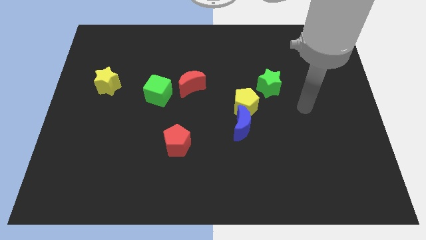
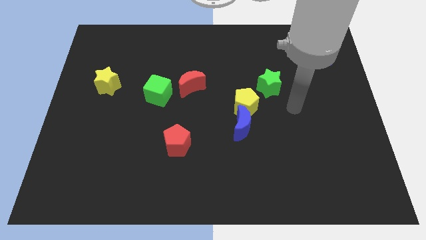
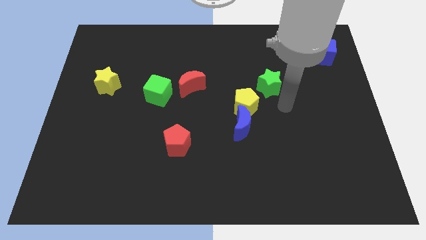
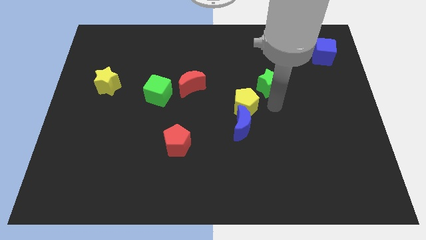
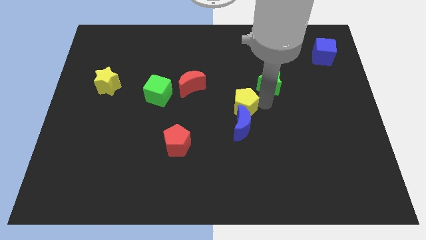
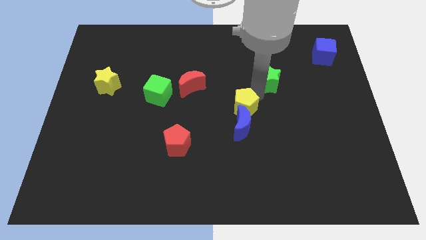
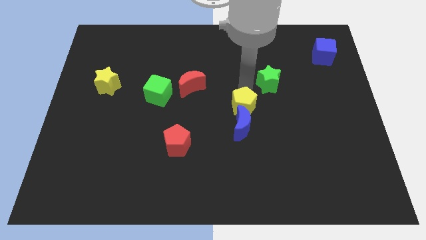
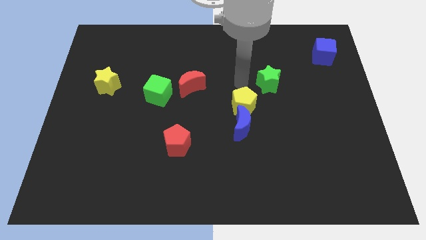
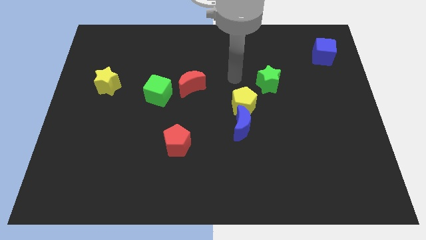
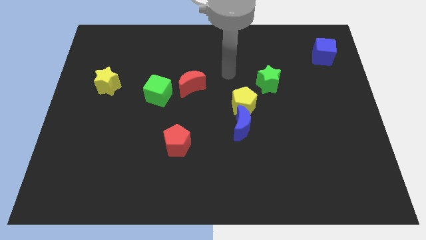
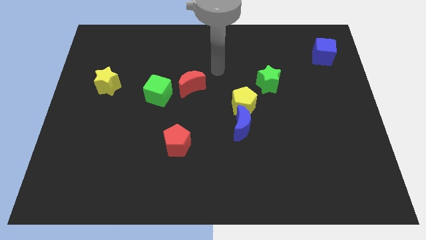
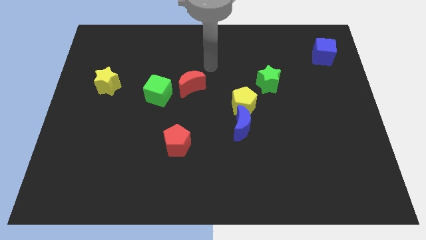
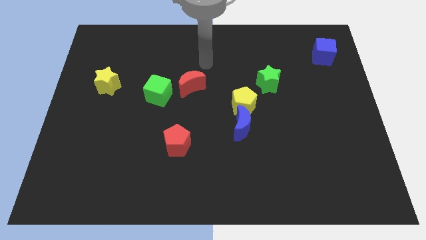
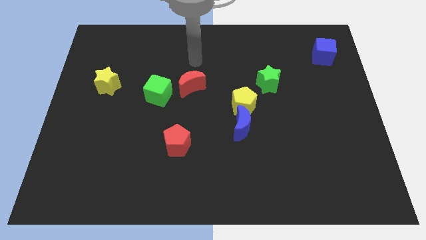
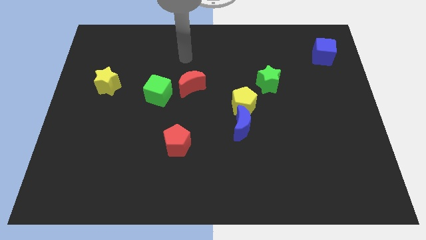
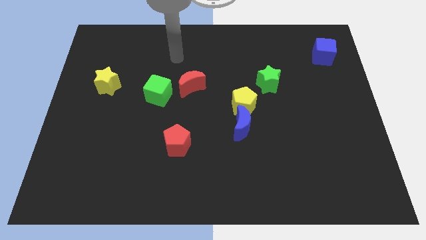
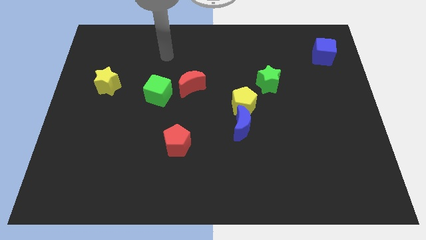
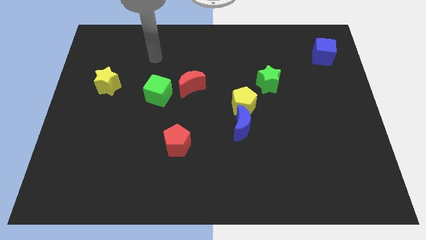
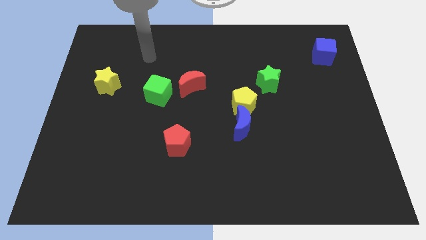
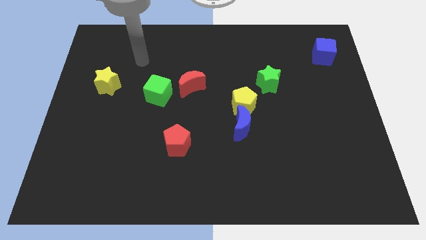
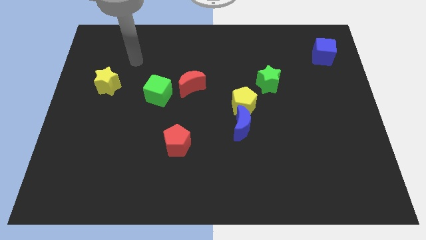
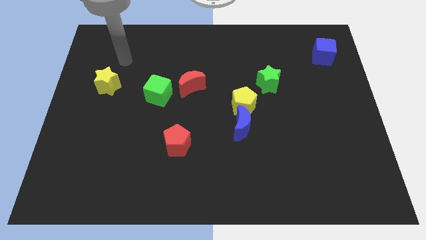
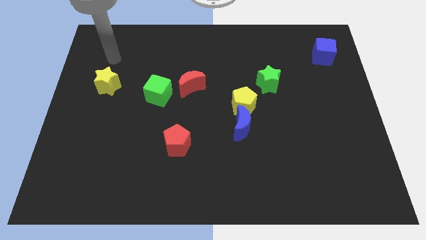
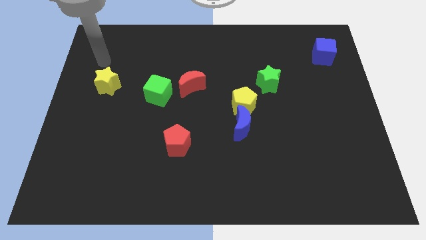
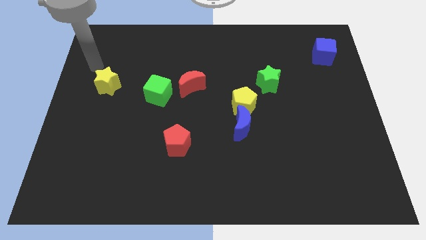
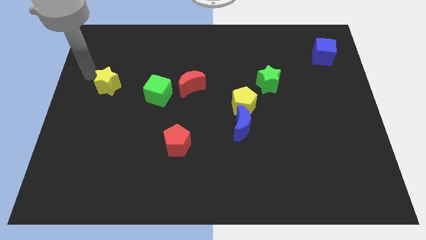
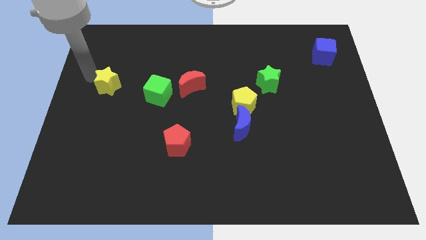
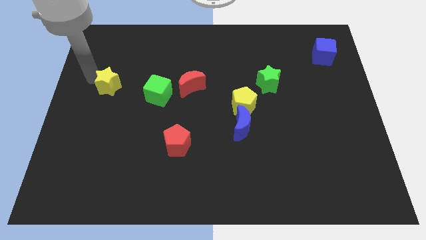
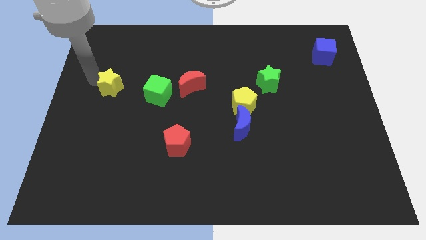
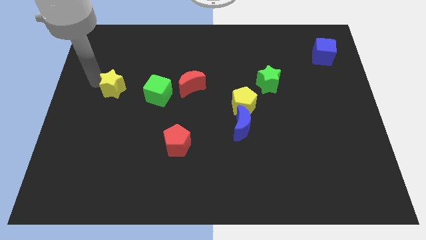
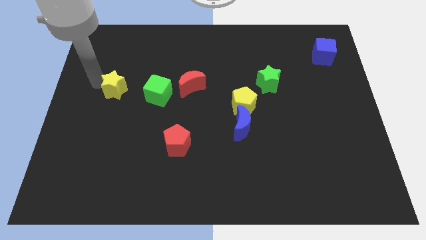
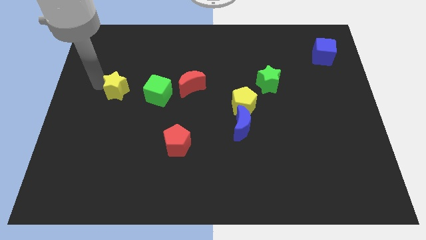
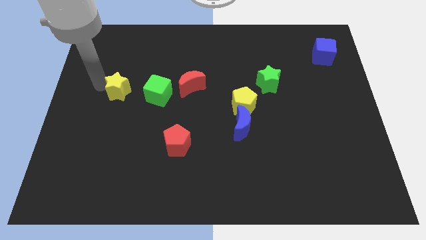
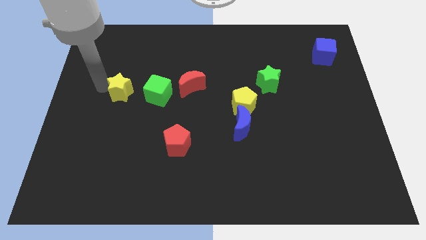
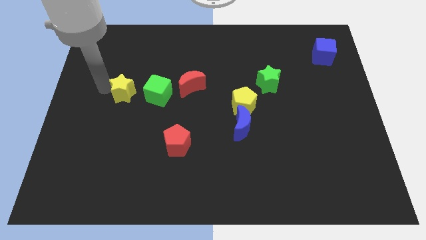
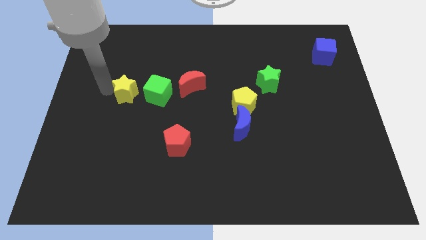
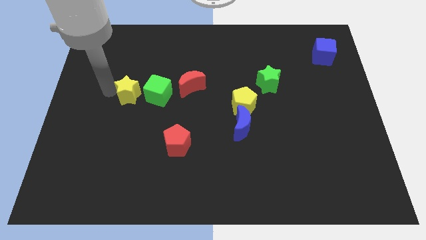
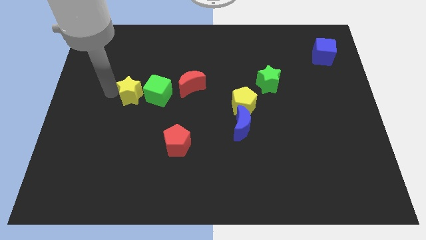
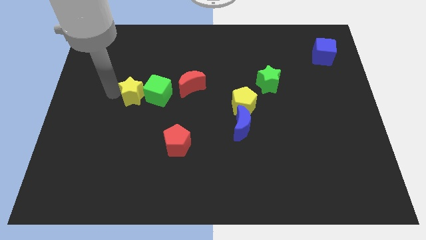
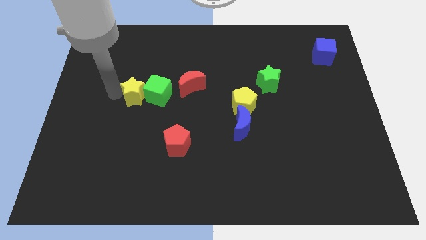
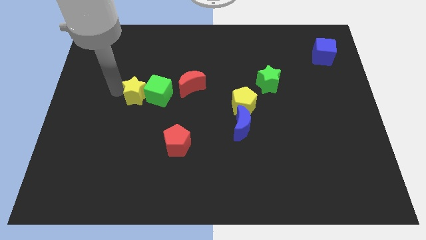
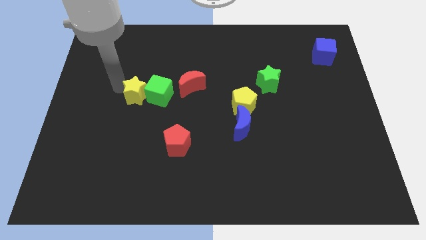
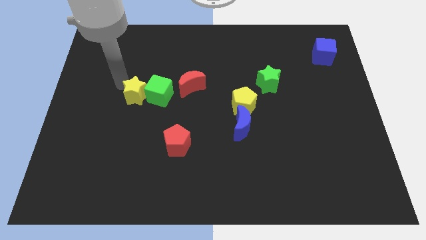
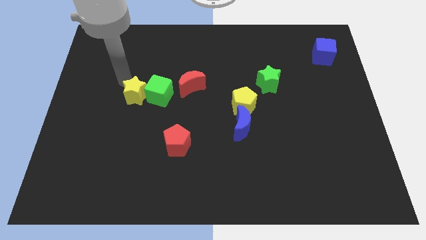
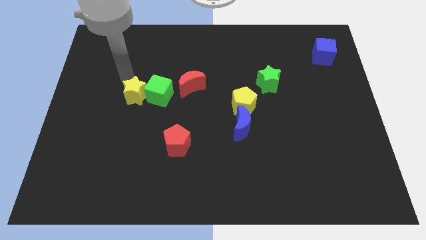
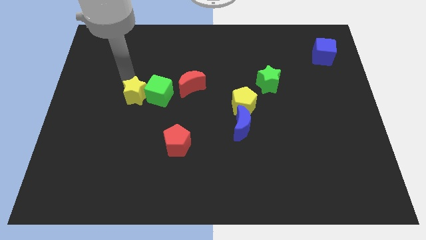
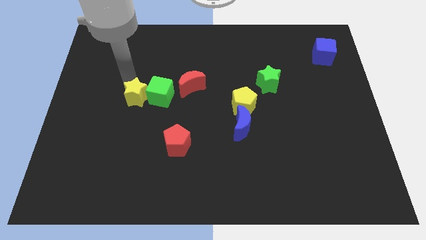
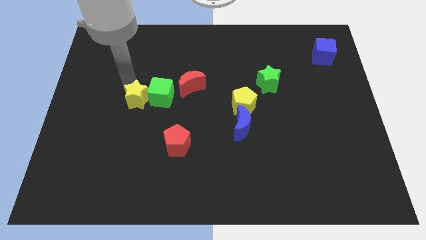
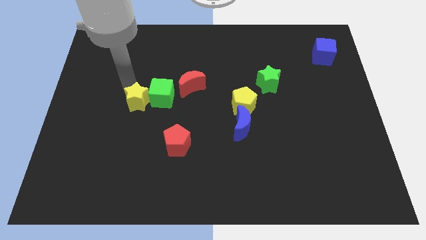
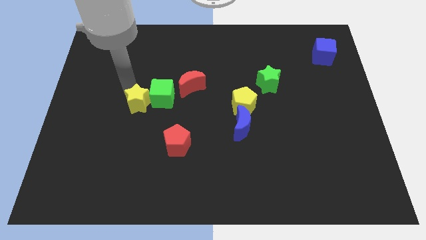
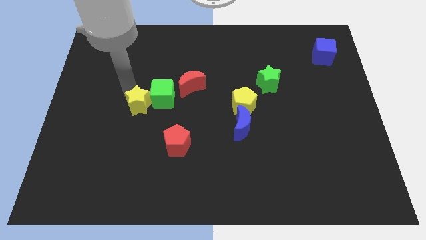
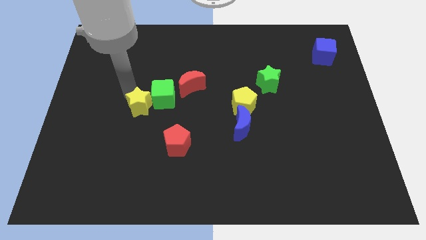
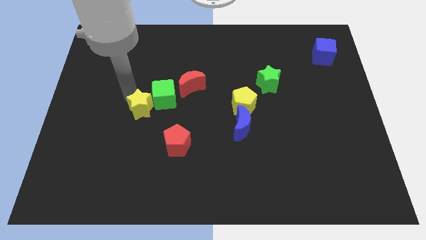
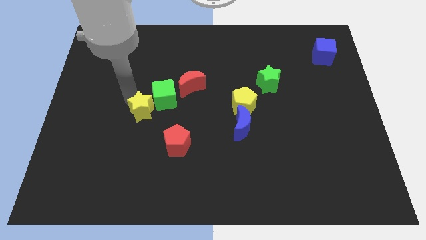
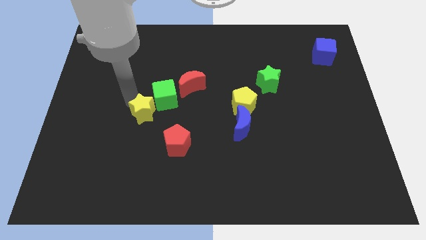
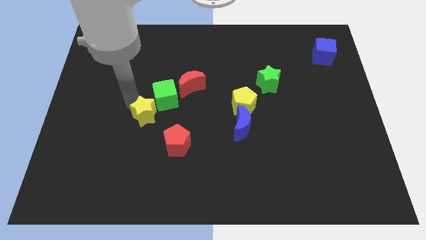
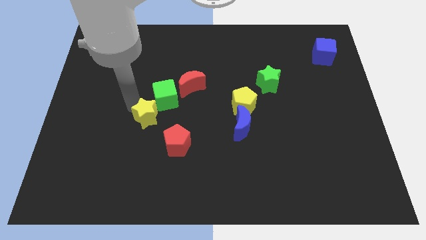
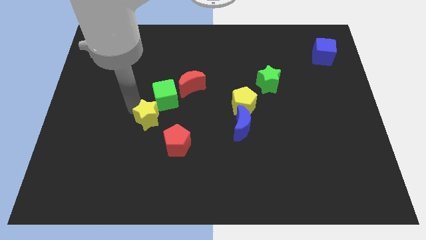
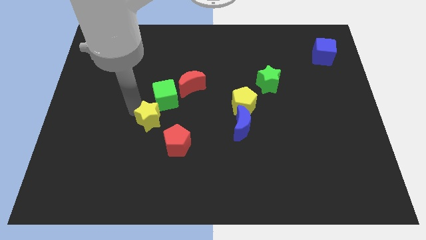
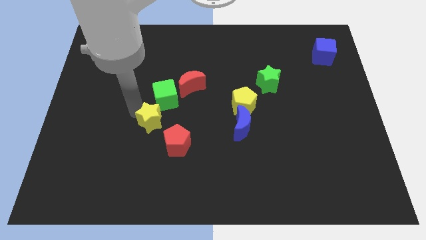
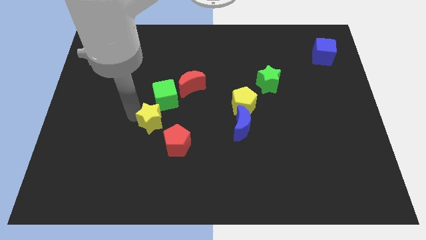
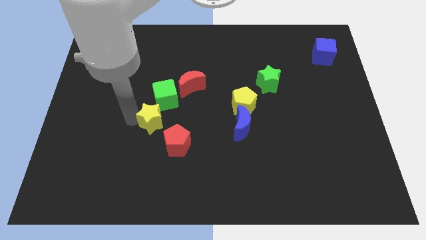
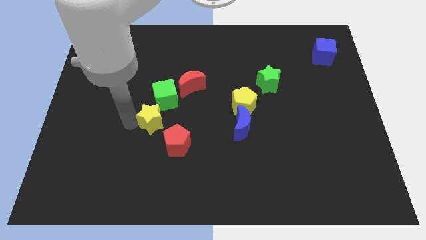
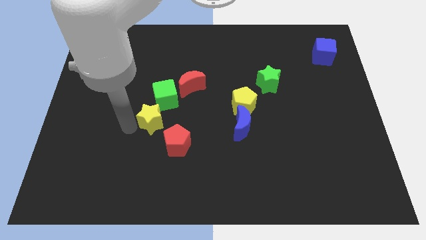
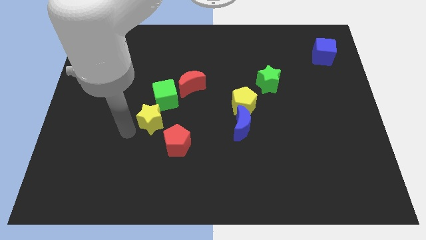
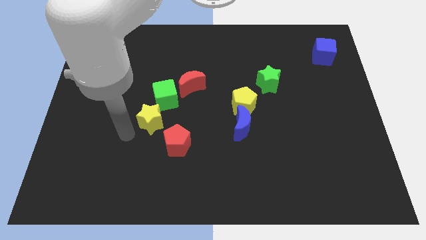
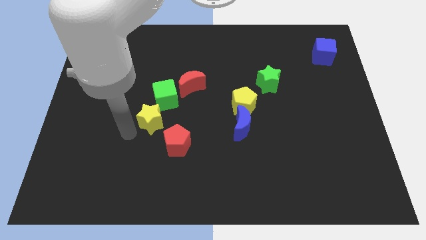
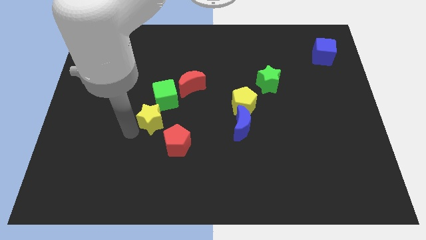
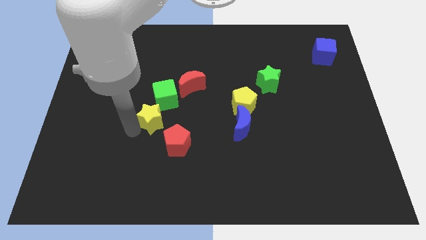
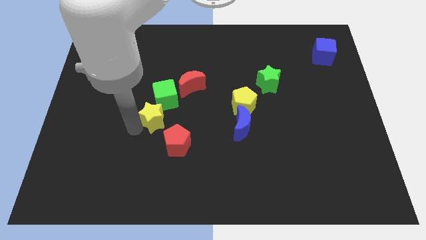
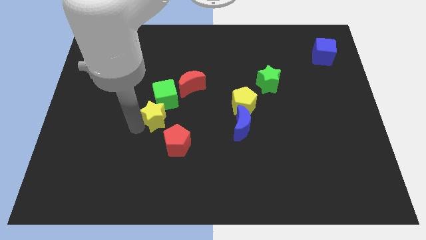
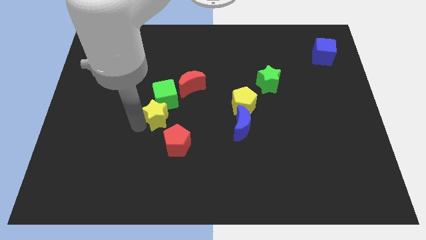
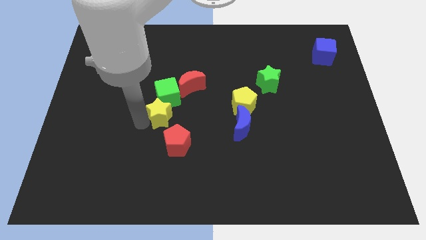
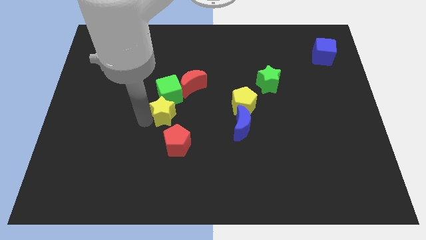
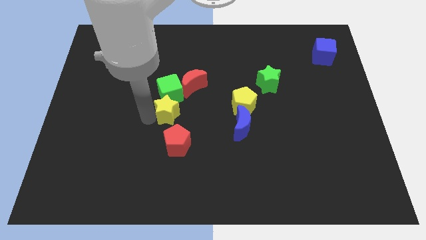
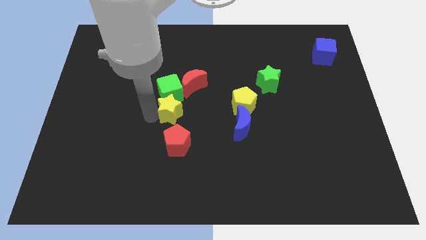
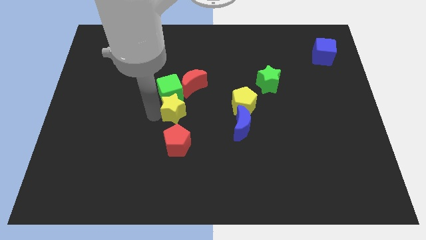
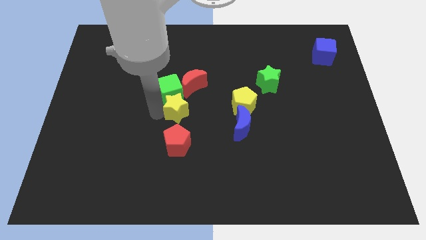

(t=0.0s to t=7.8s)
move the yellow star left of the yellow pentagon

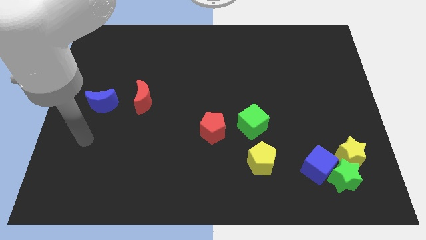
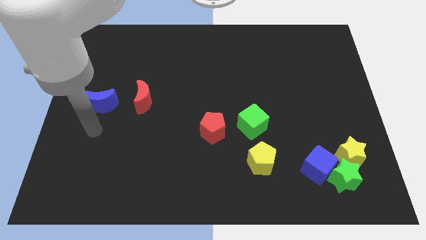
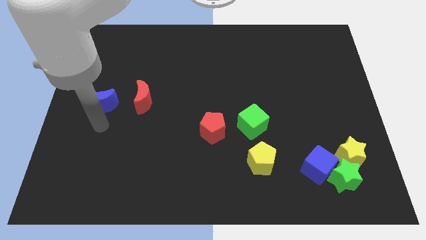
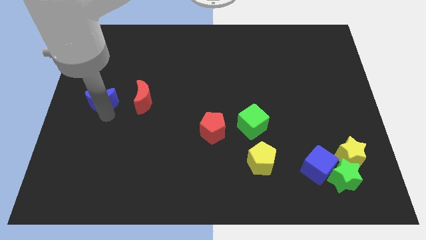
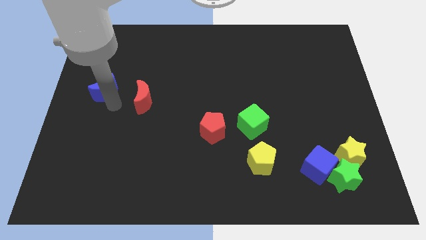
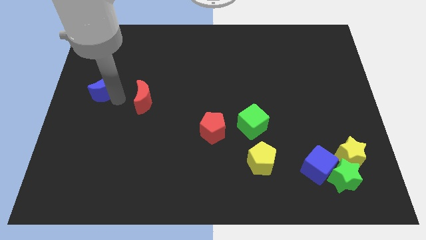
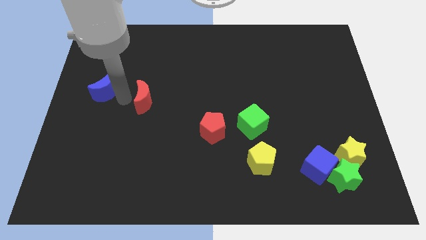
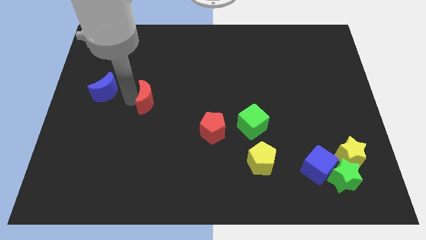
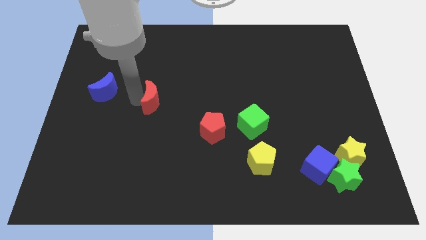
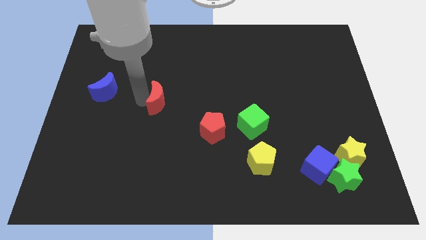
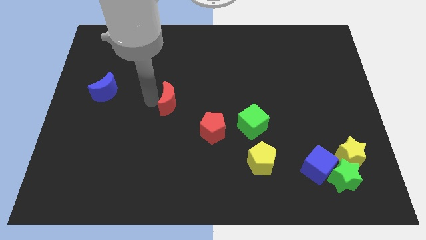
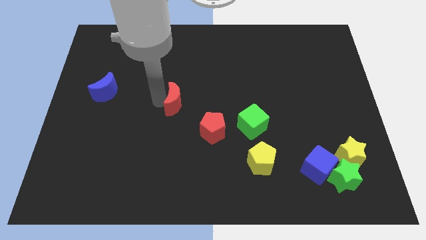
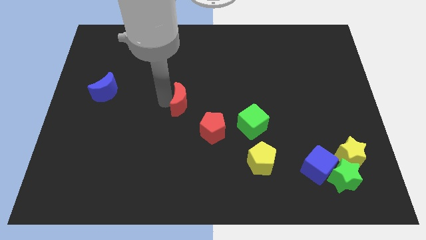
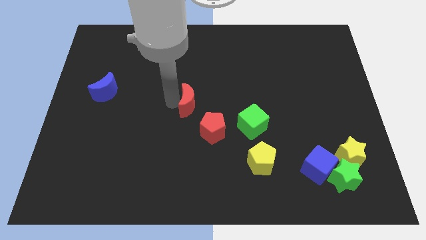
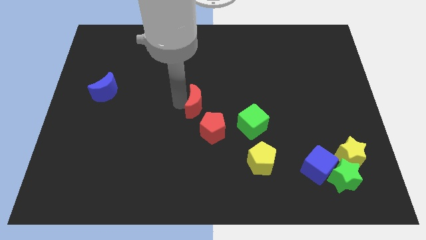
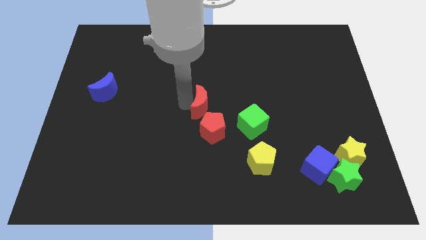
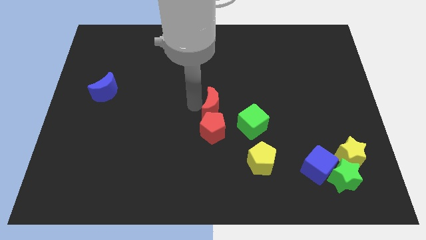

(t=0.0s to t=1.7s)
put the red moon to the top right side of the red pentagon
